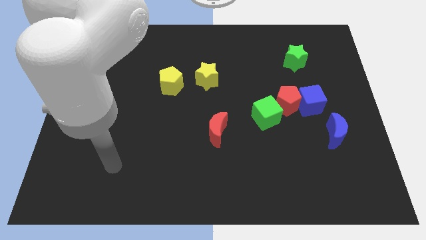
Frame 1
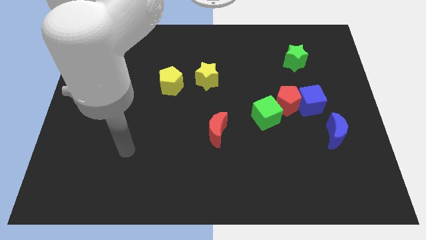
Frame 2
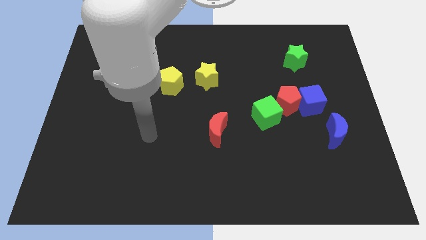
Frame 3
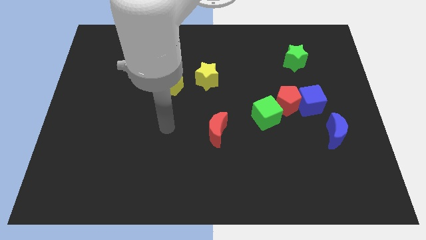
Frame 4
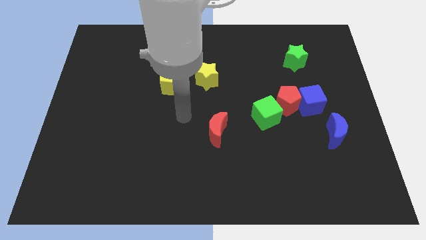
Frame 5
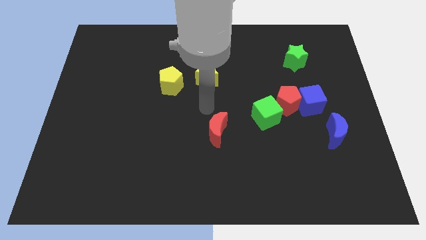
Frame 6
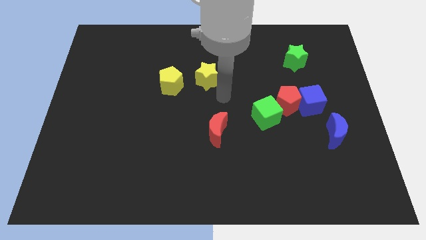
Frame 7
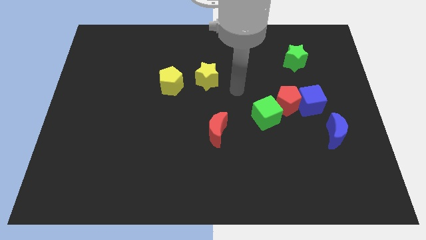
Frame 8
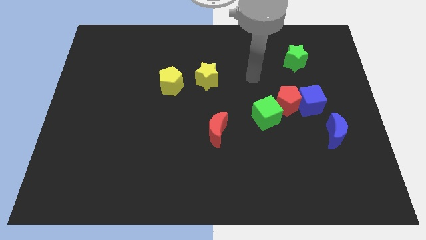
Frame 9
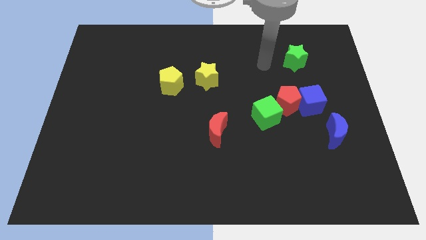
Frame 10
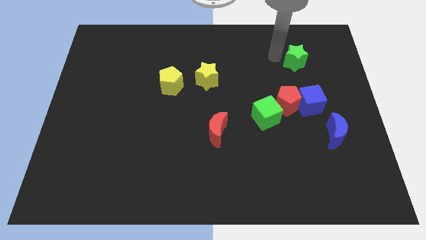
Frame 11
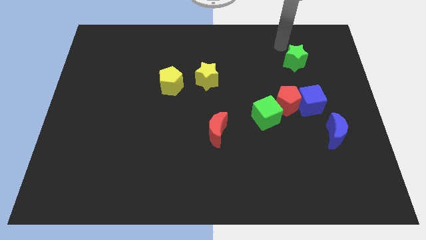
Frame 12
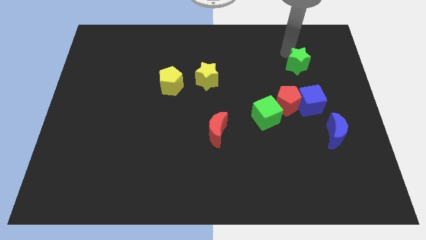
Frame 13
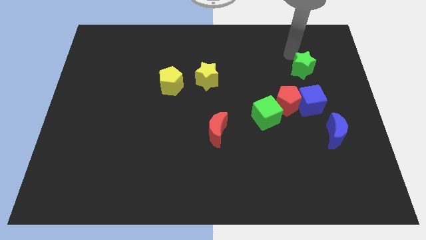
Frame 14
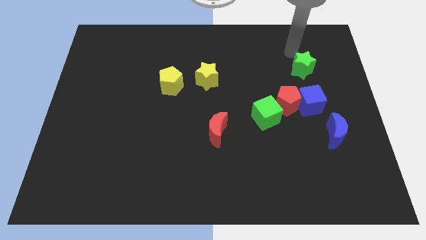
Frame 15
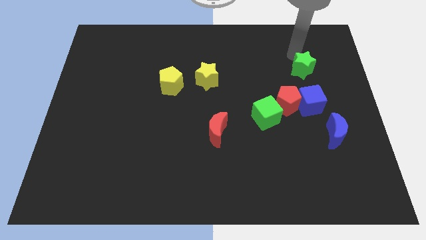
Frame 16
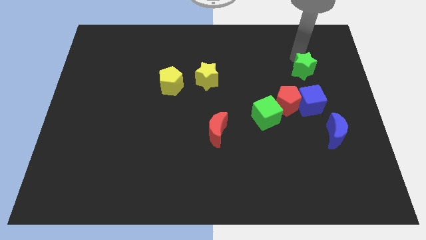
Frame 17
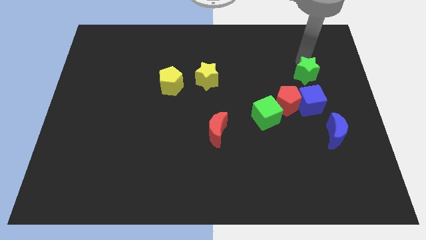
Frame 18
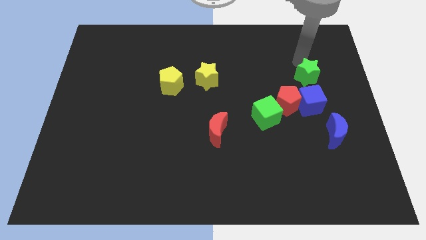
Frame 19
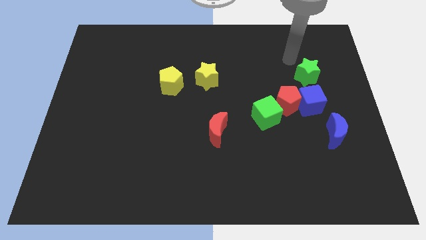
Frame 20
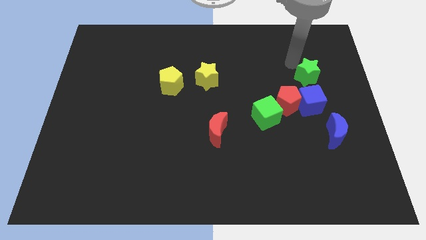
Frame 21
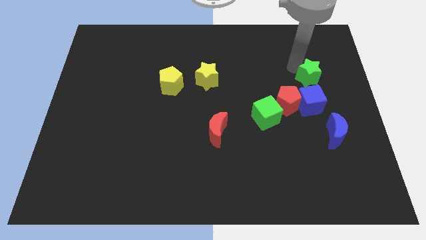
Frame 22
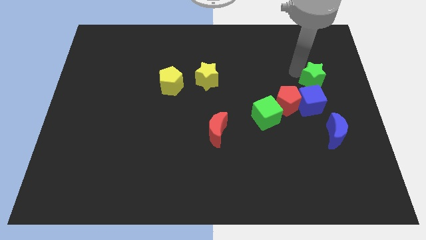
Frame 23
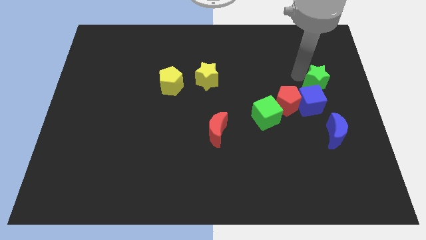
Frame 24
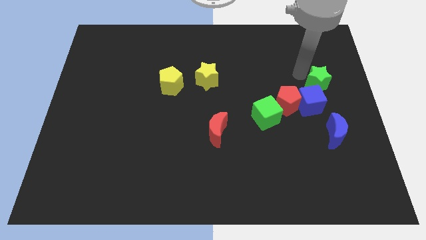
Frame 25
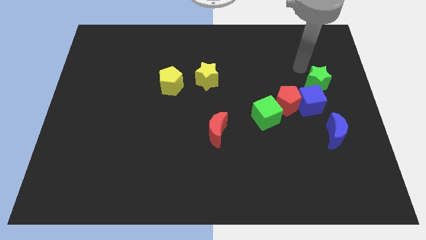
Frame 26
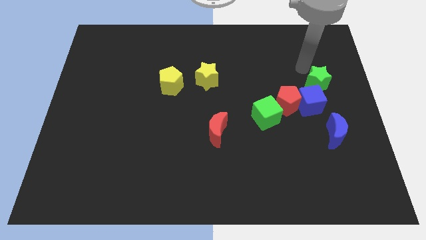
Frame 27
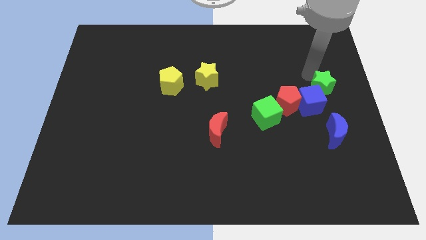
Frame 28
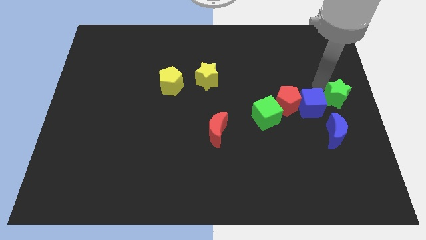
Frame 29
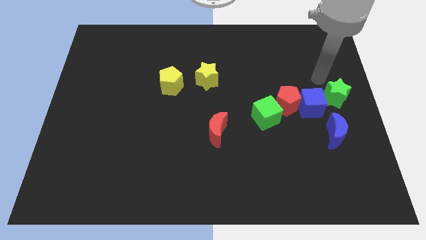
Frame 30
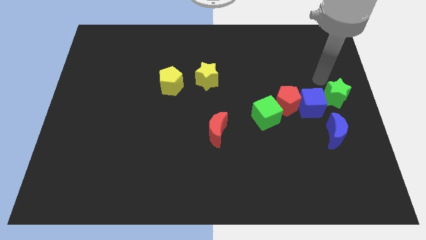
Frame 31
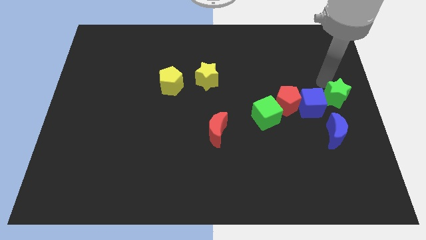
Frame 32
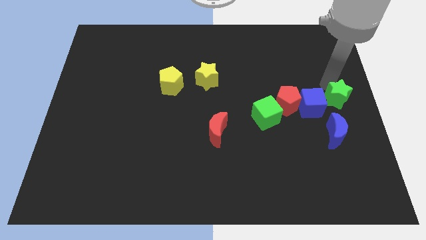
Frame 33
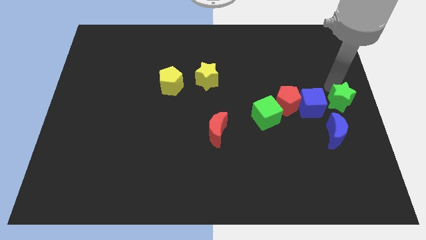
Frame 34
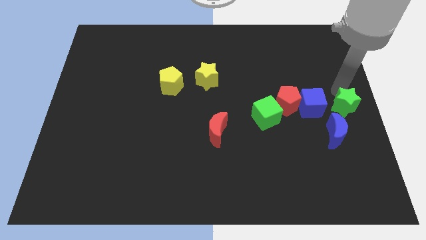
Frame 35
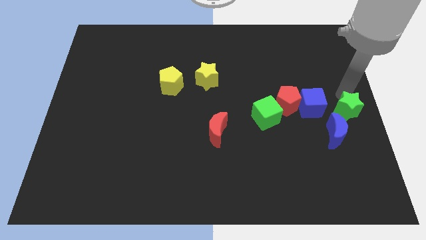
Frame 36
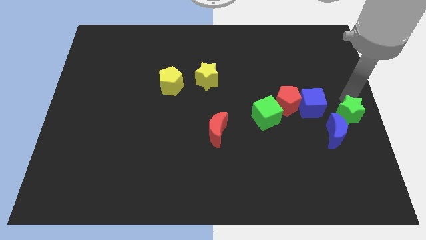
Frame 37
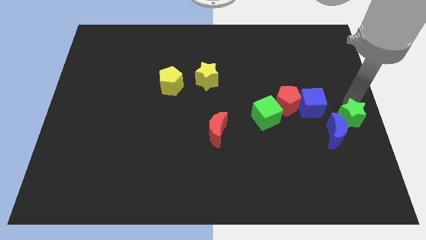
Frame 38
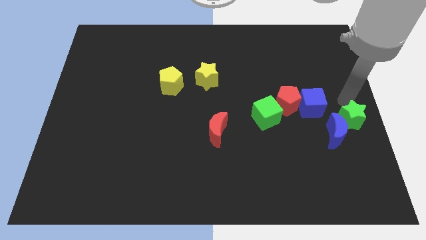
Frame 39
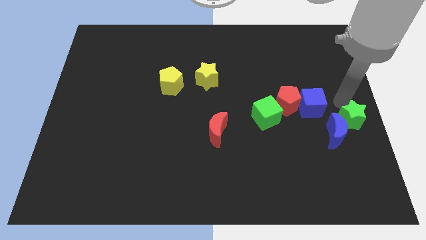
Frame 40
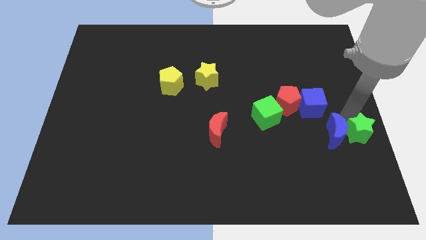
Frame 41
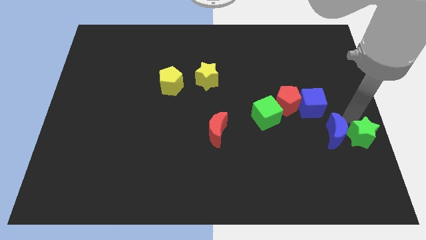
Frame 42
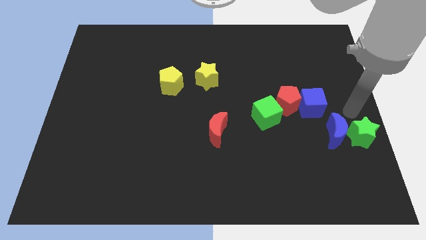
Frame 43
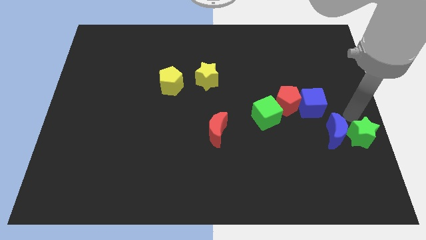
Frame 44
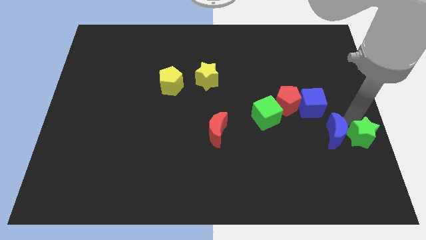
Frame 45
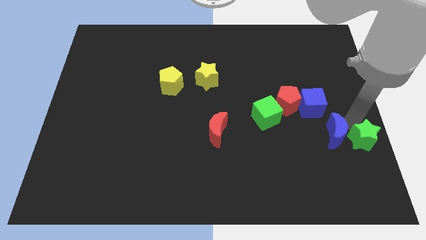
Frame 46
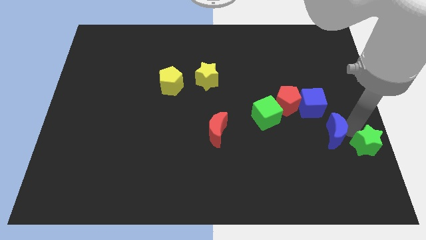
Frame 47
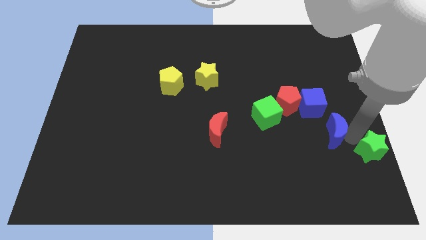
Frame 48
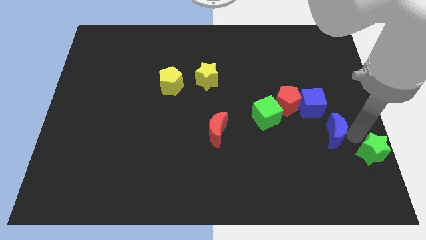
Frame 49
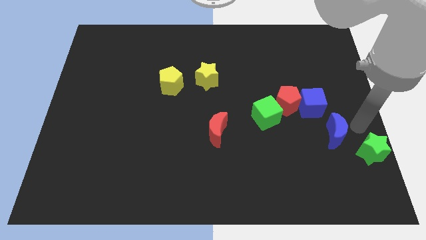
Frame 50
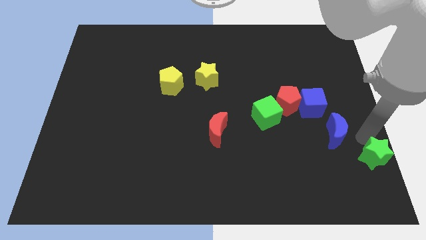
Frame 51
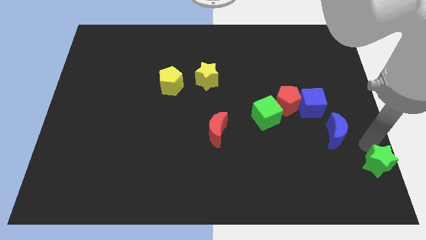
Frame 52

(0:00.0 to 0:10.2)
slide the green star to the lower right corner

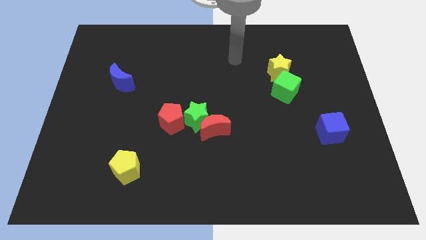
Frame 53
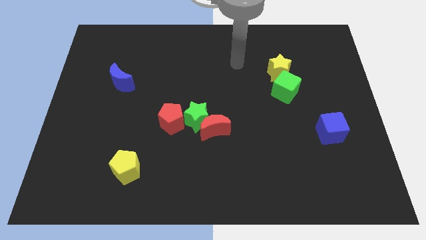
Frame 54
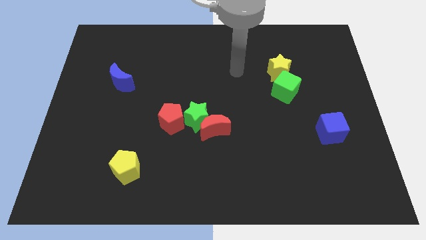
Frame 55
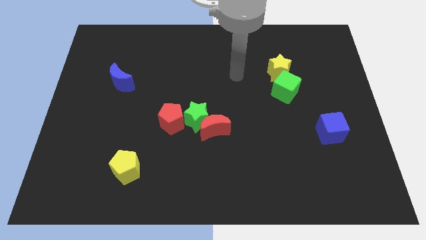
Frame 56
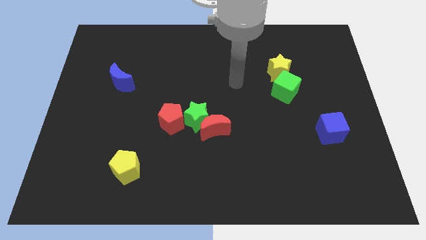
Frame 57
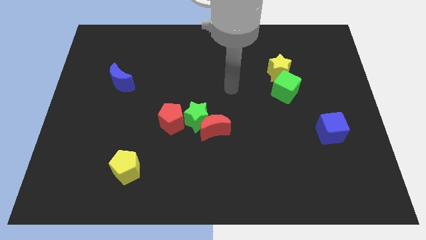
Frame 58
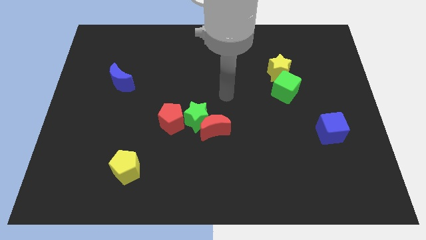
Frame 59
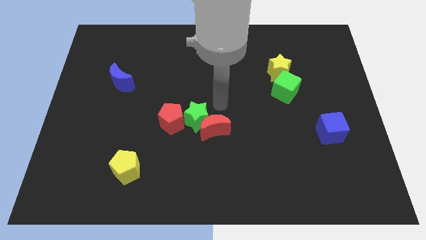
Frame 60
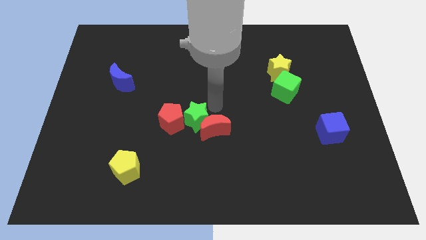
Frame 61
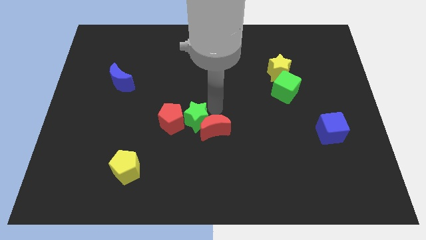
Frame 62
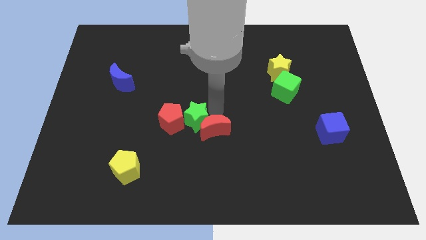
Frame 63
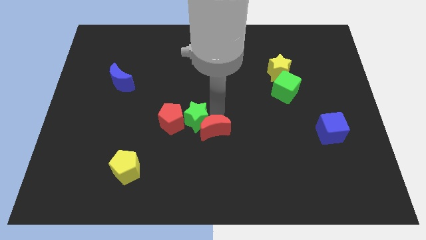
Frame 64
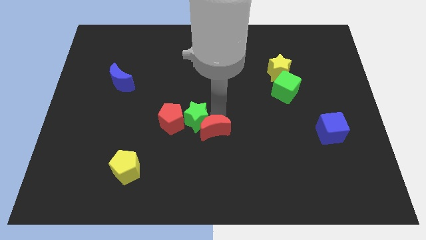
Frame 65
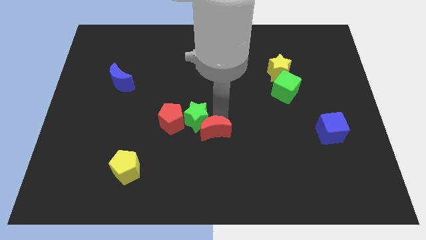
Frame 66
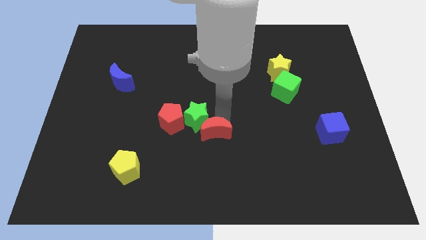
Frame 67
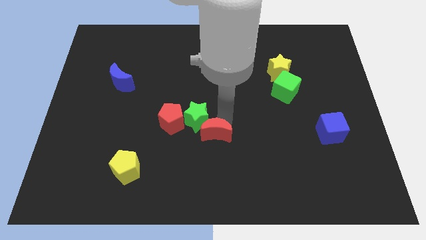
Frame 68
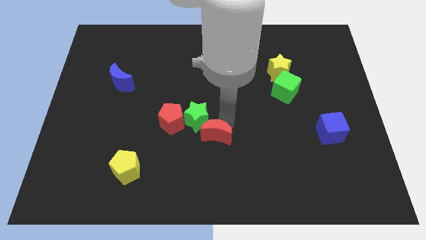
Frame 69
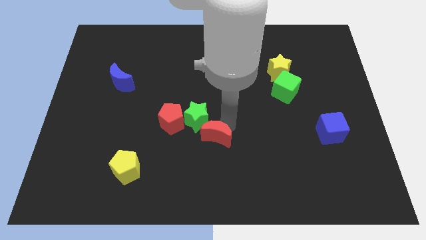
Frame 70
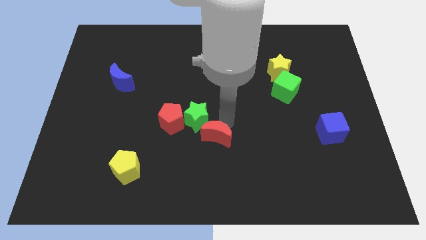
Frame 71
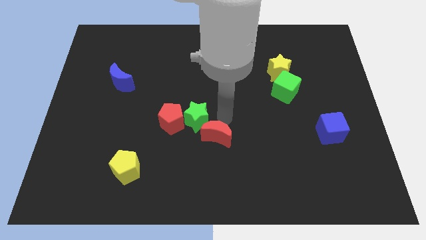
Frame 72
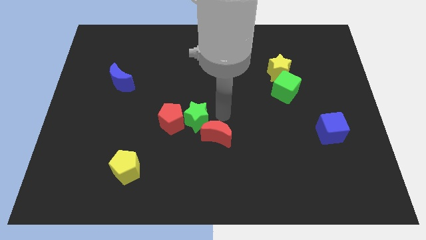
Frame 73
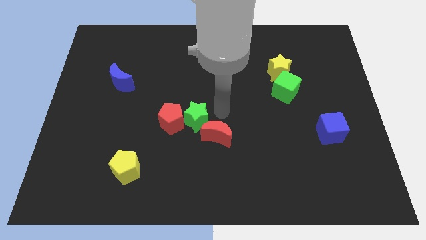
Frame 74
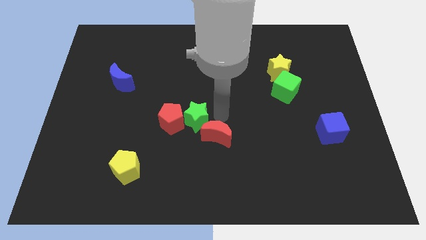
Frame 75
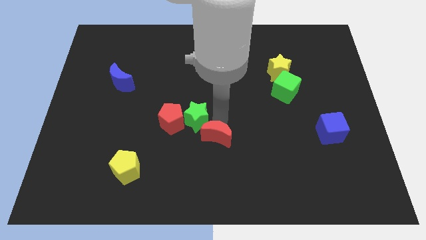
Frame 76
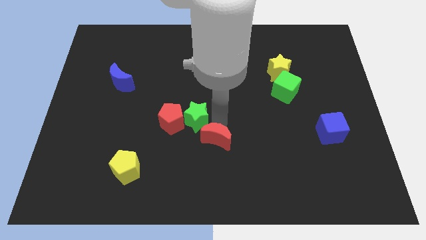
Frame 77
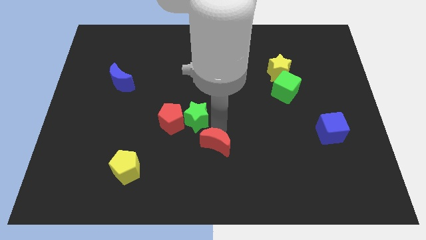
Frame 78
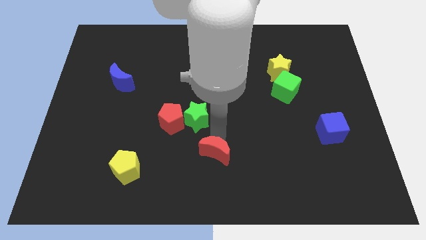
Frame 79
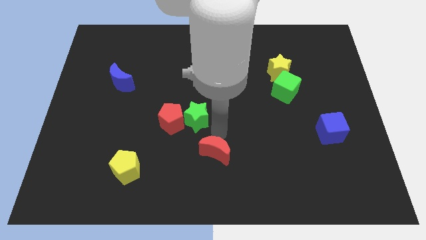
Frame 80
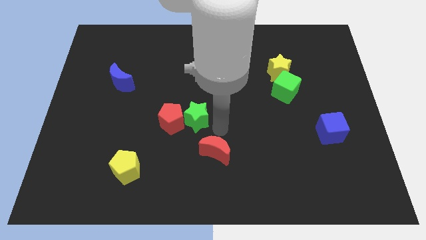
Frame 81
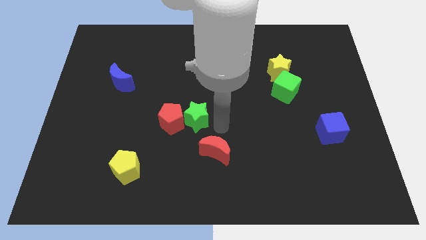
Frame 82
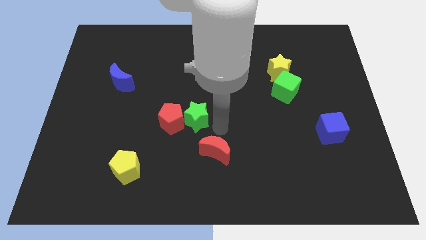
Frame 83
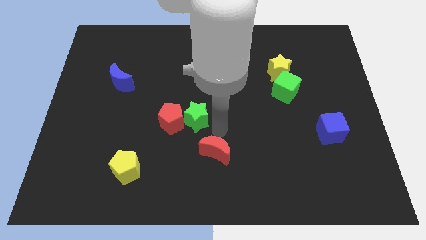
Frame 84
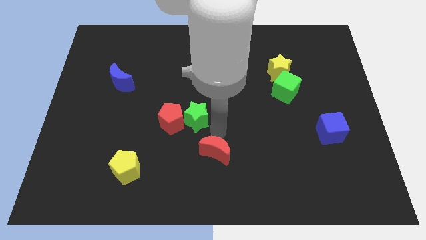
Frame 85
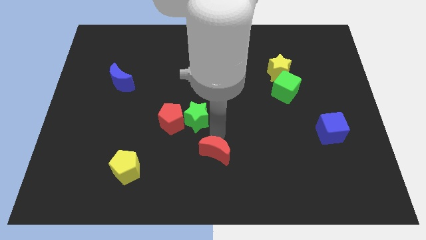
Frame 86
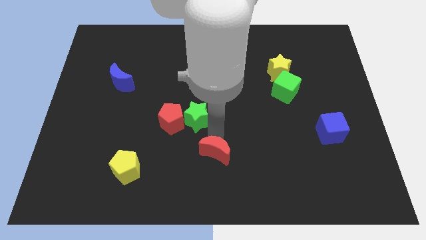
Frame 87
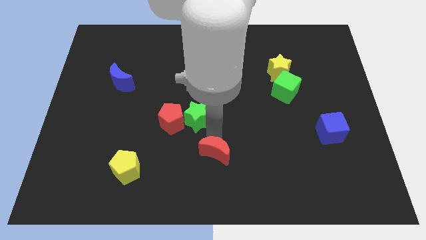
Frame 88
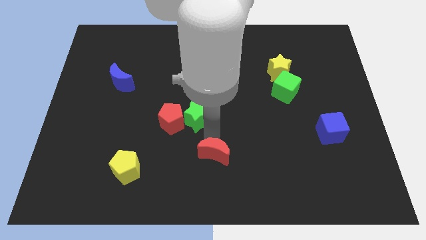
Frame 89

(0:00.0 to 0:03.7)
slide the red moon to the bottom side
